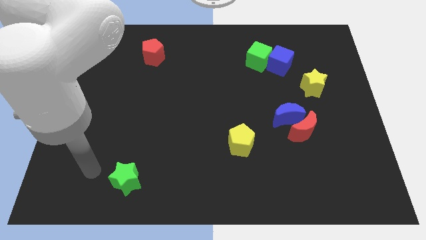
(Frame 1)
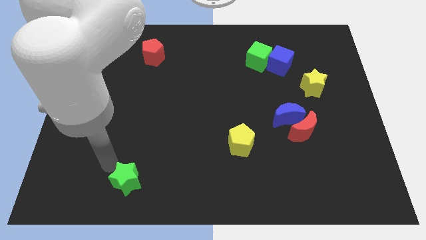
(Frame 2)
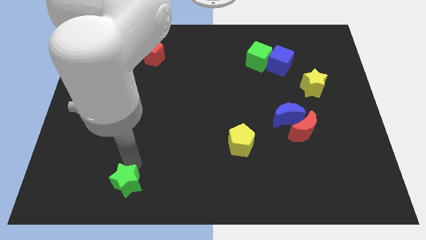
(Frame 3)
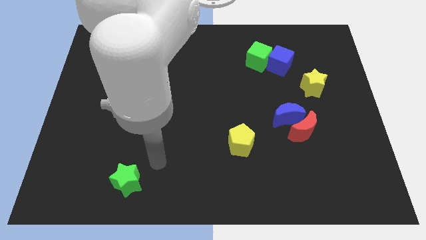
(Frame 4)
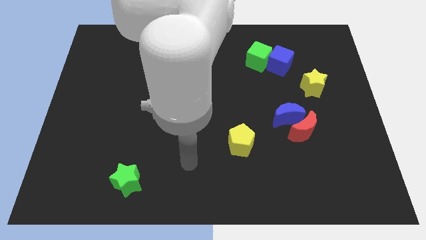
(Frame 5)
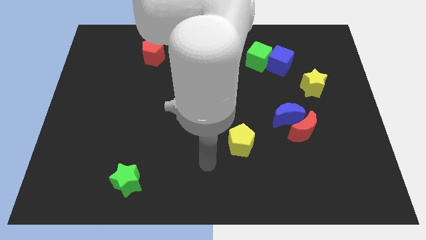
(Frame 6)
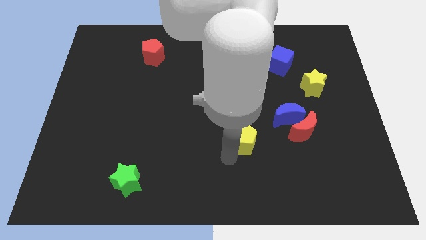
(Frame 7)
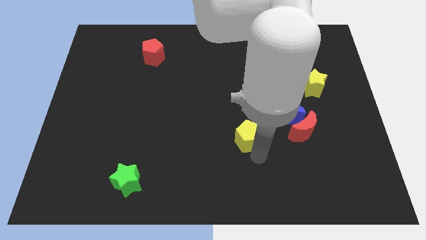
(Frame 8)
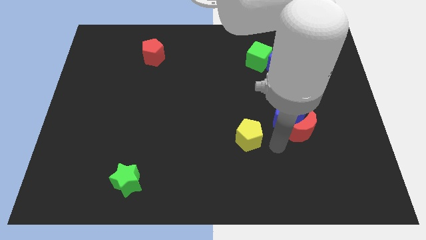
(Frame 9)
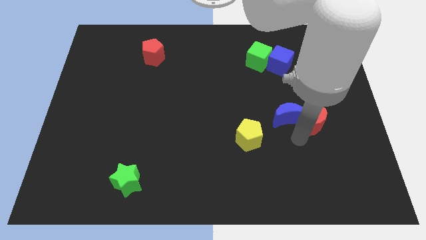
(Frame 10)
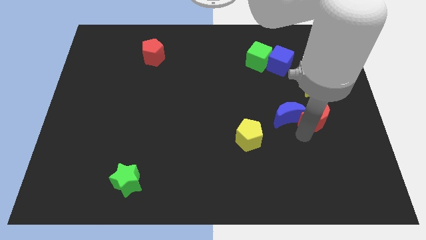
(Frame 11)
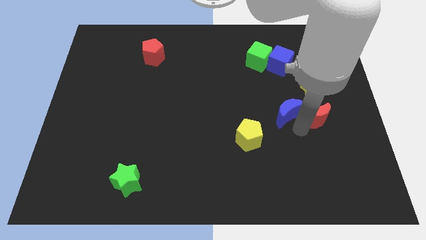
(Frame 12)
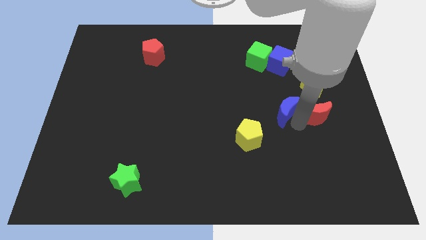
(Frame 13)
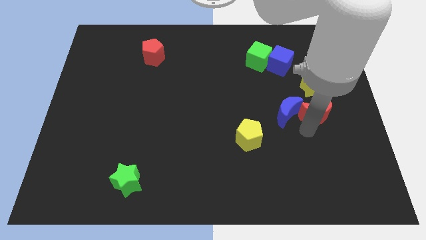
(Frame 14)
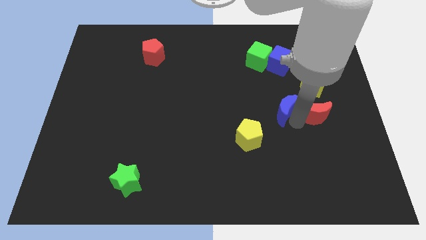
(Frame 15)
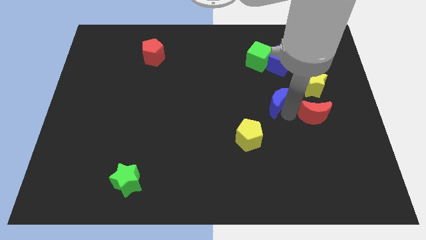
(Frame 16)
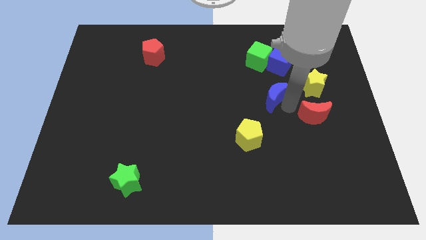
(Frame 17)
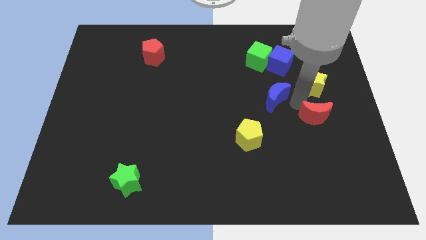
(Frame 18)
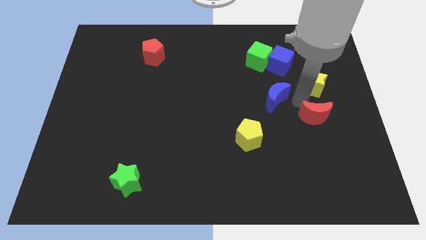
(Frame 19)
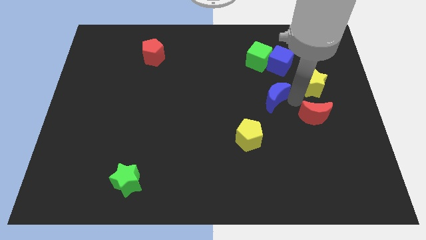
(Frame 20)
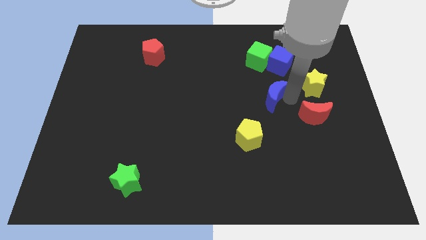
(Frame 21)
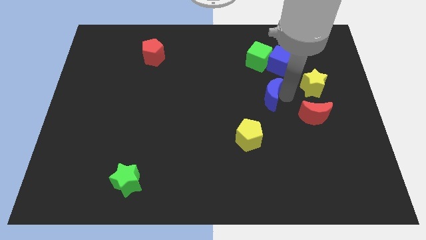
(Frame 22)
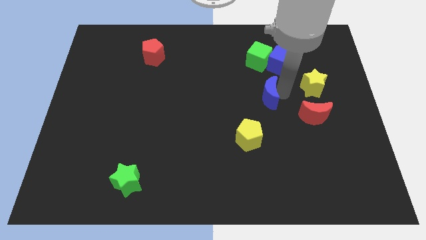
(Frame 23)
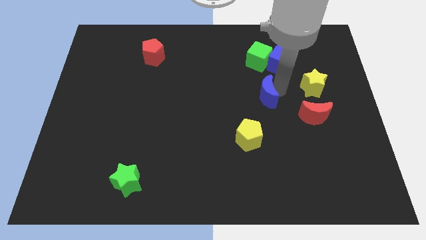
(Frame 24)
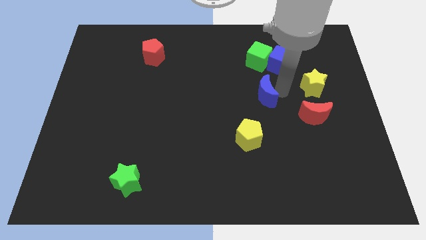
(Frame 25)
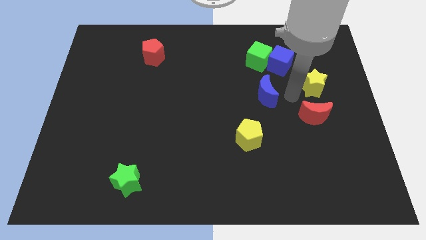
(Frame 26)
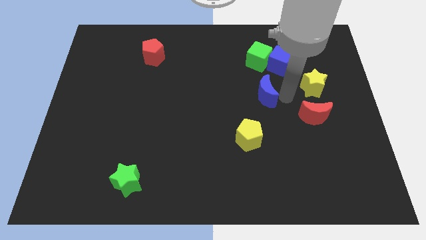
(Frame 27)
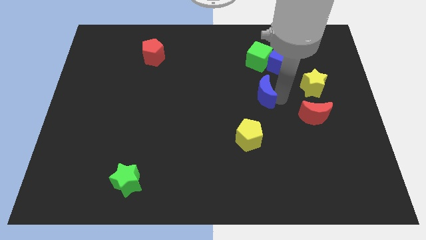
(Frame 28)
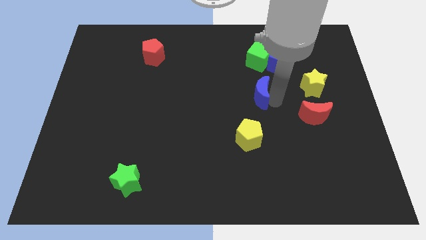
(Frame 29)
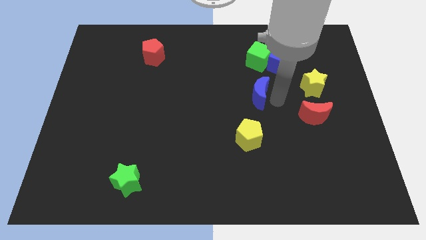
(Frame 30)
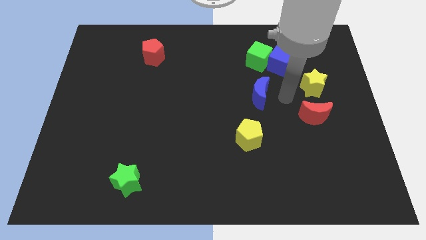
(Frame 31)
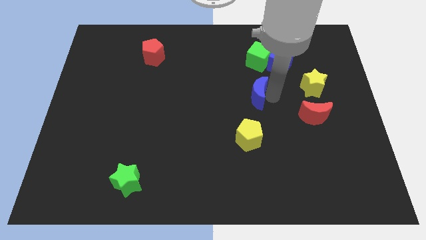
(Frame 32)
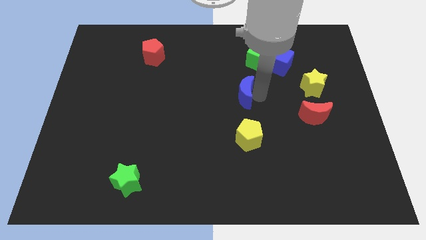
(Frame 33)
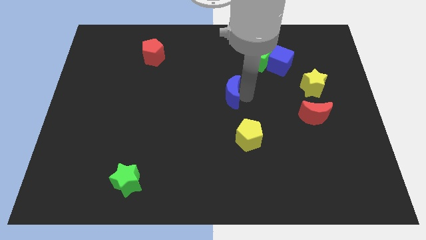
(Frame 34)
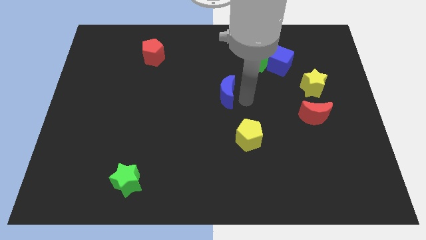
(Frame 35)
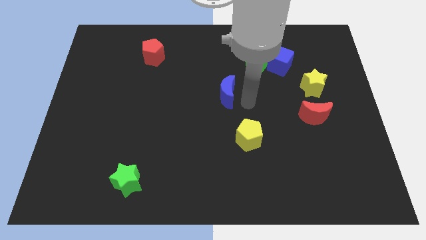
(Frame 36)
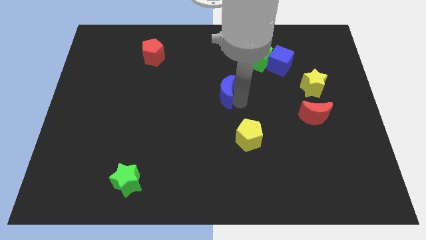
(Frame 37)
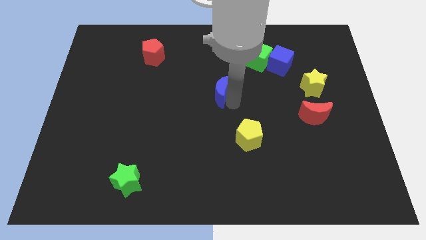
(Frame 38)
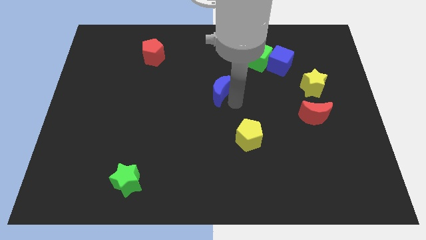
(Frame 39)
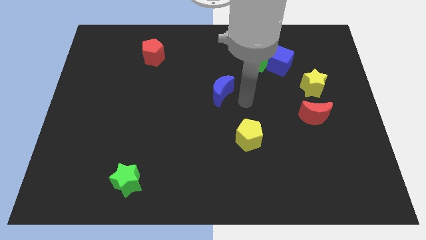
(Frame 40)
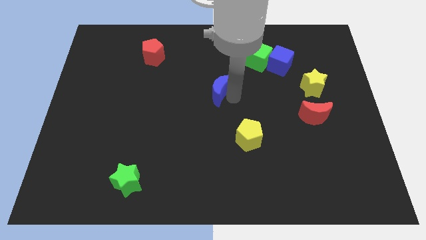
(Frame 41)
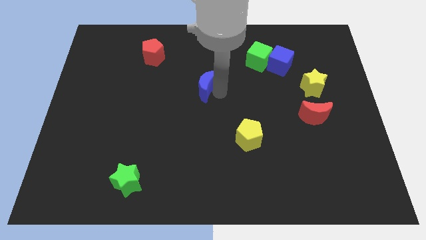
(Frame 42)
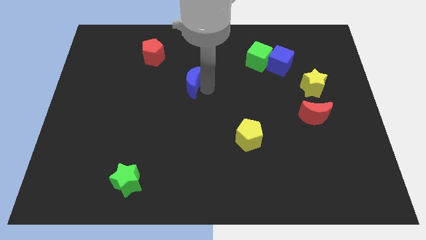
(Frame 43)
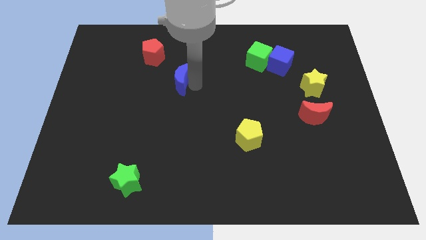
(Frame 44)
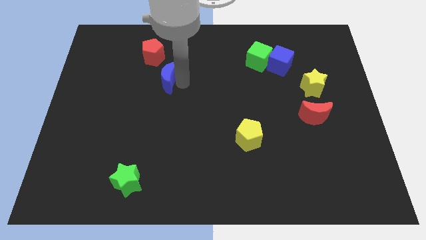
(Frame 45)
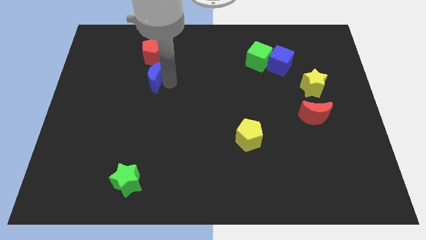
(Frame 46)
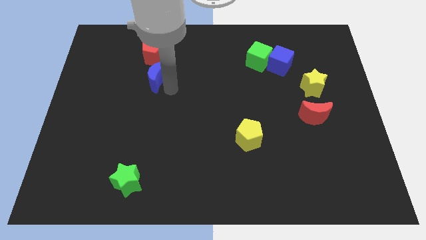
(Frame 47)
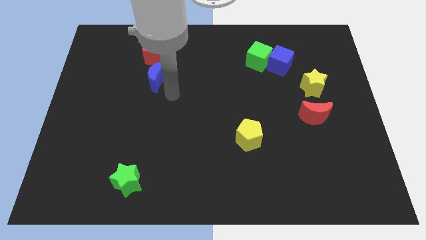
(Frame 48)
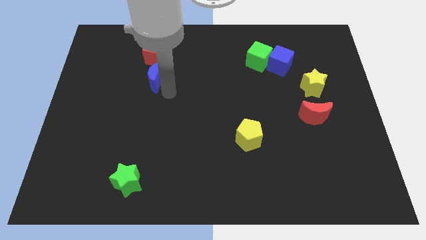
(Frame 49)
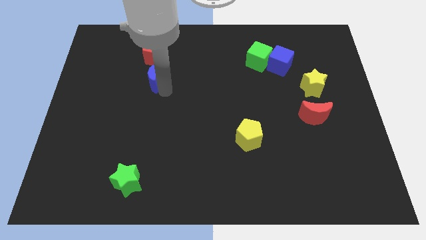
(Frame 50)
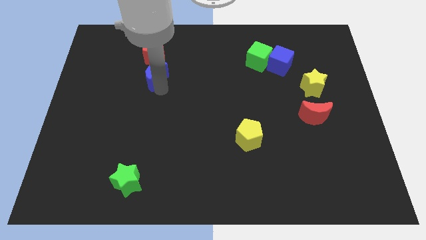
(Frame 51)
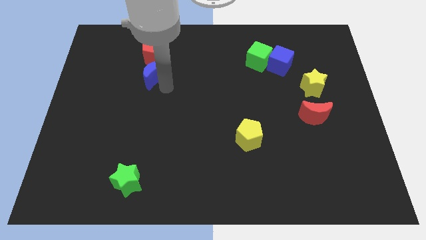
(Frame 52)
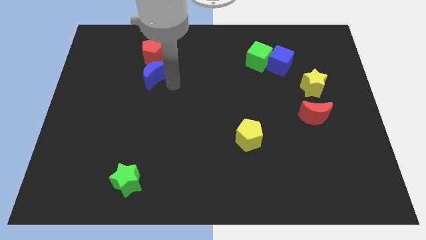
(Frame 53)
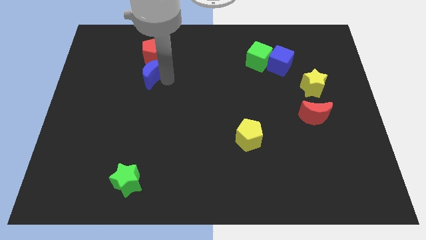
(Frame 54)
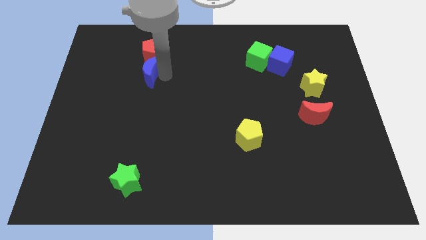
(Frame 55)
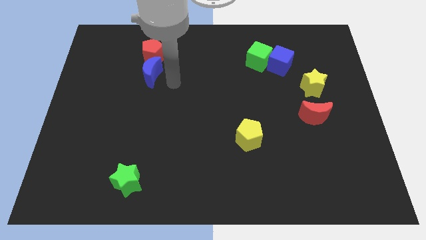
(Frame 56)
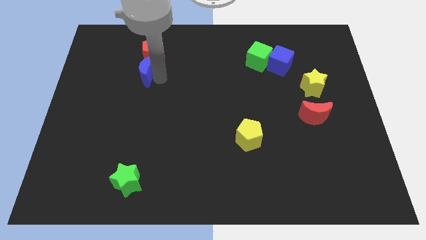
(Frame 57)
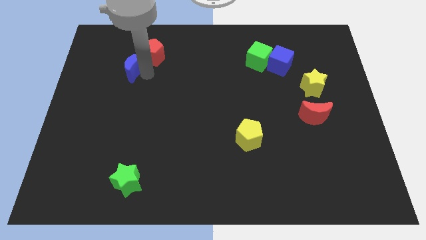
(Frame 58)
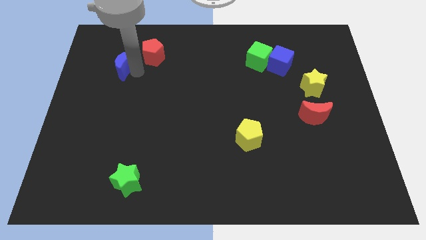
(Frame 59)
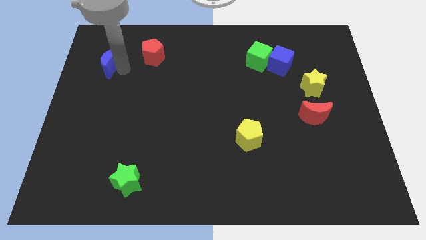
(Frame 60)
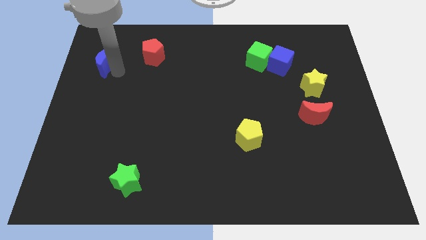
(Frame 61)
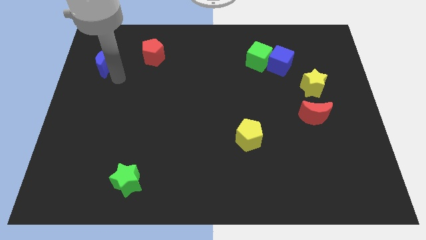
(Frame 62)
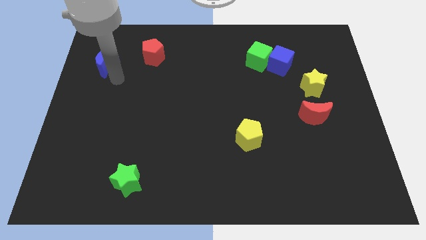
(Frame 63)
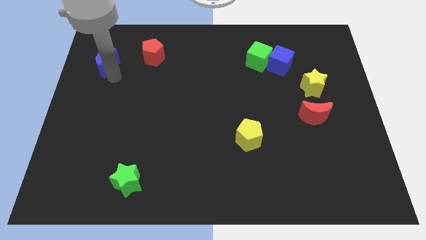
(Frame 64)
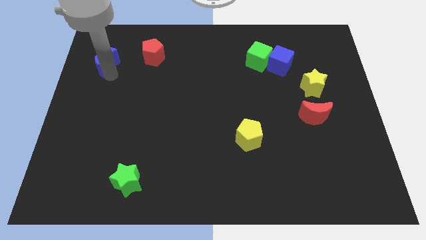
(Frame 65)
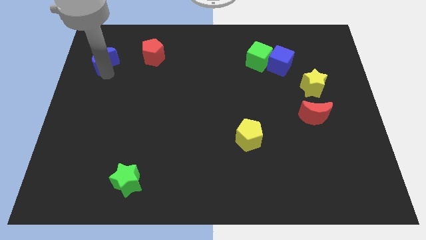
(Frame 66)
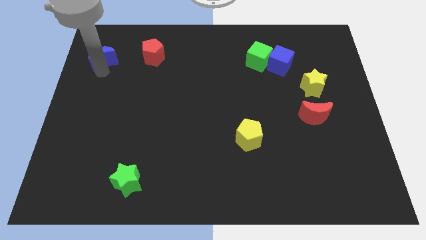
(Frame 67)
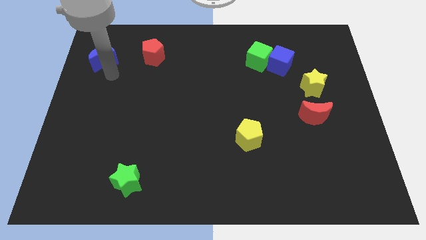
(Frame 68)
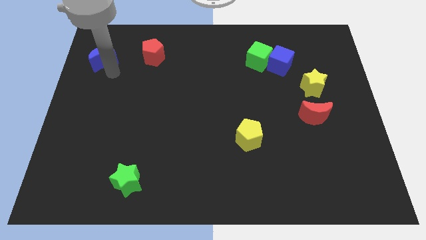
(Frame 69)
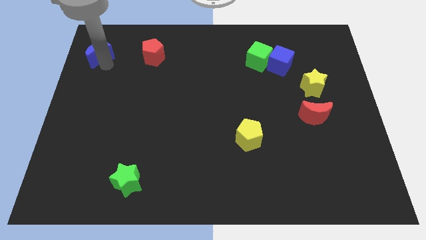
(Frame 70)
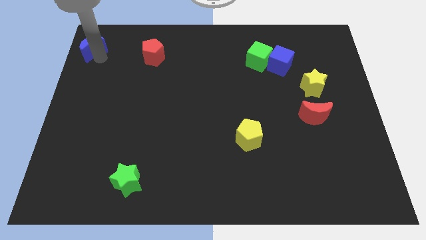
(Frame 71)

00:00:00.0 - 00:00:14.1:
move the blue moon to the upper left corner
